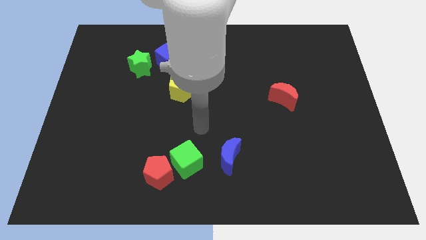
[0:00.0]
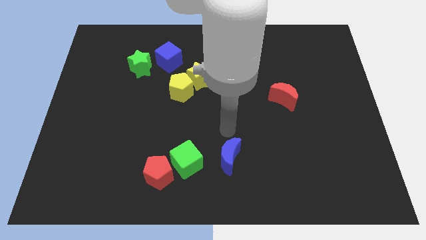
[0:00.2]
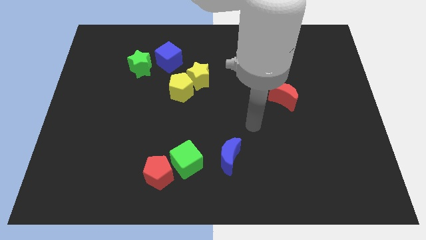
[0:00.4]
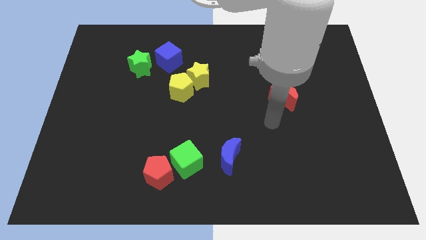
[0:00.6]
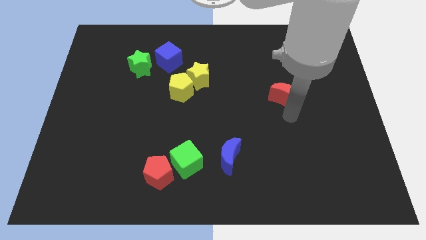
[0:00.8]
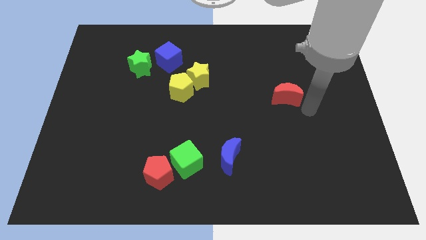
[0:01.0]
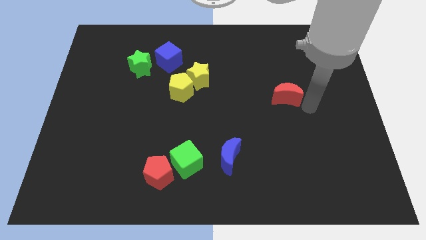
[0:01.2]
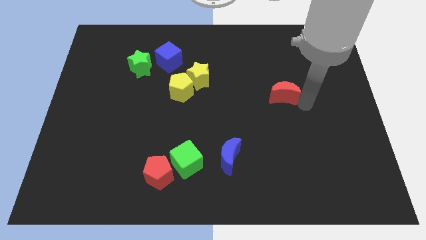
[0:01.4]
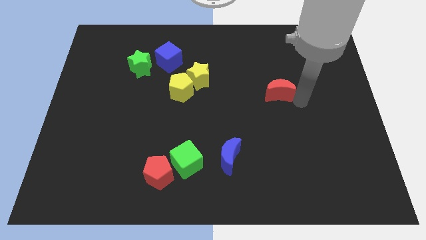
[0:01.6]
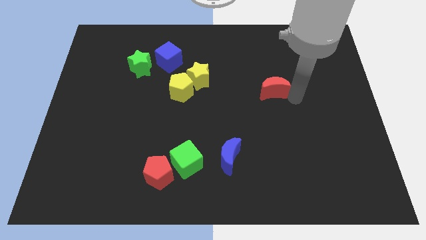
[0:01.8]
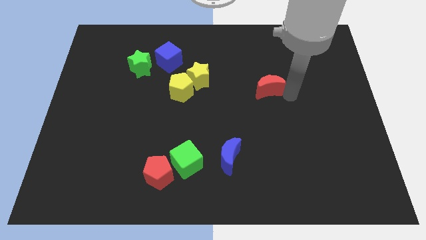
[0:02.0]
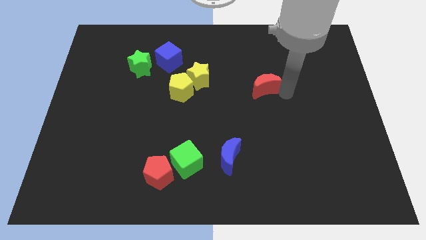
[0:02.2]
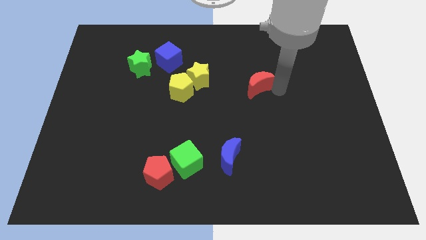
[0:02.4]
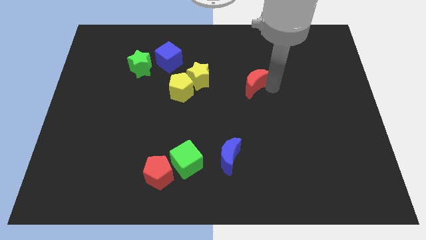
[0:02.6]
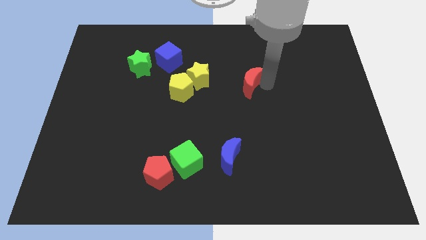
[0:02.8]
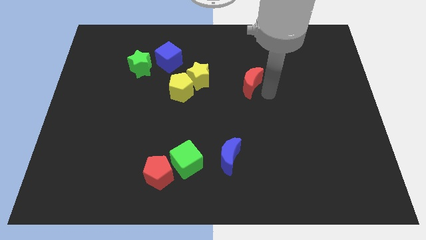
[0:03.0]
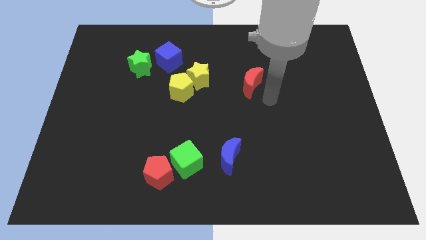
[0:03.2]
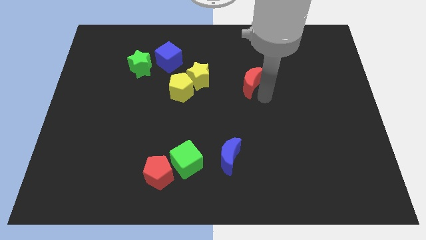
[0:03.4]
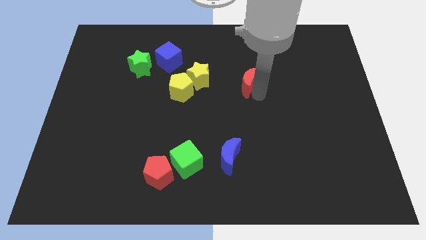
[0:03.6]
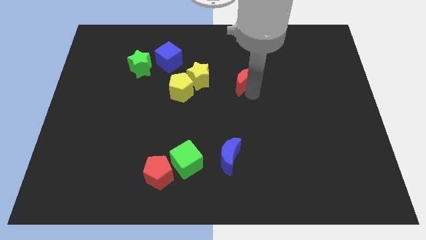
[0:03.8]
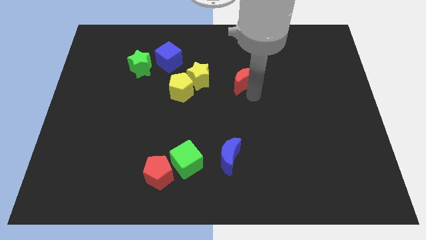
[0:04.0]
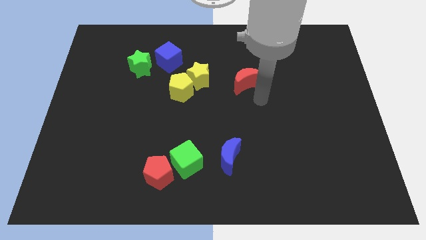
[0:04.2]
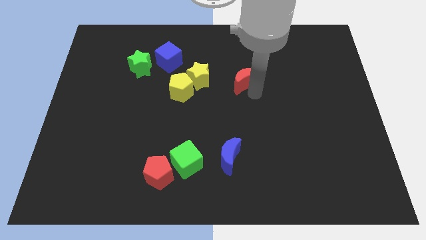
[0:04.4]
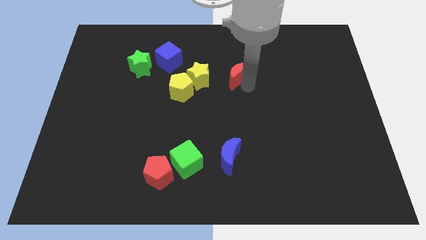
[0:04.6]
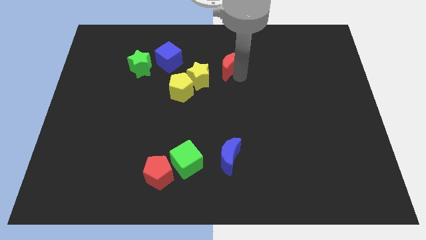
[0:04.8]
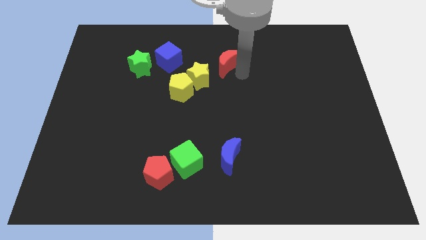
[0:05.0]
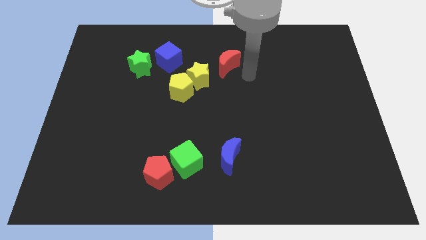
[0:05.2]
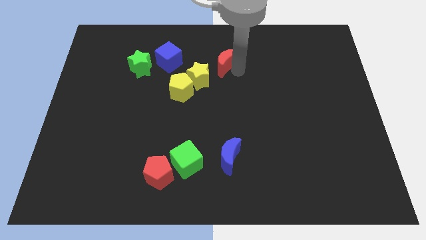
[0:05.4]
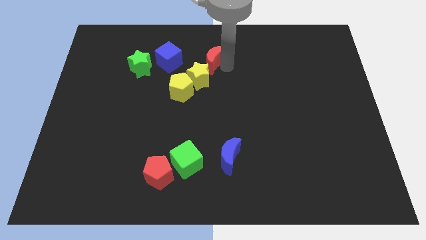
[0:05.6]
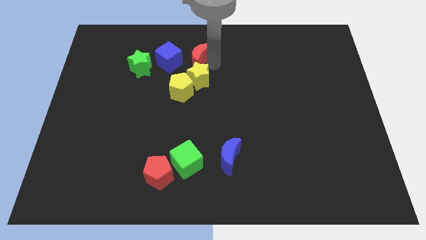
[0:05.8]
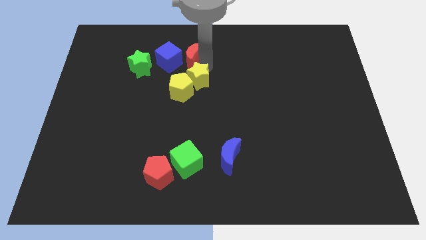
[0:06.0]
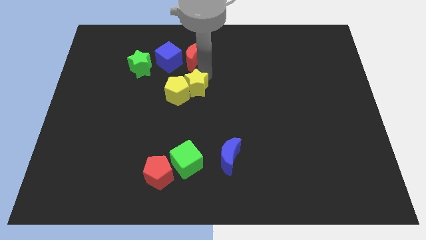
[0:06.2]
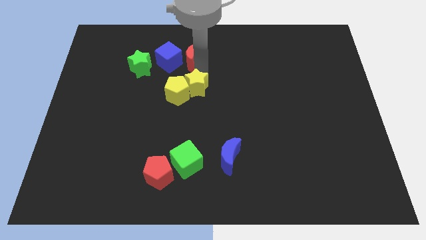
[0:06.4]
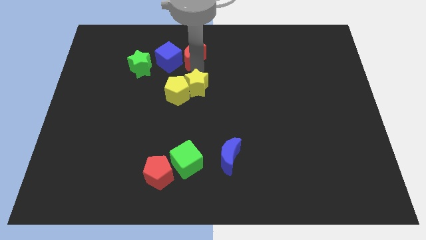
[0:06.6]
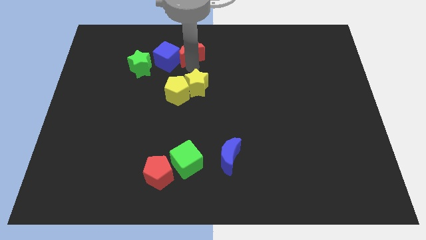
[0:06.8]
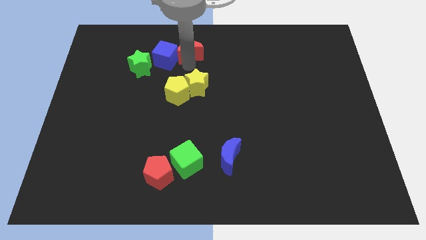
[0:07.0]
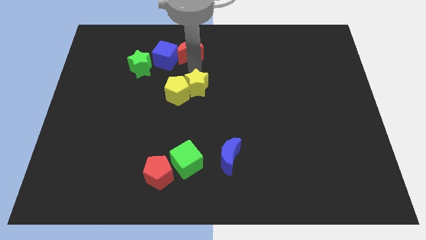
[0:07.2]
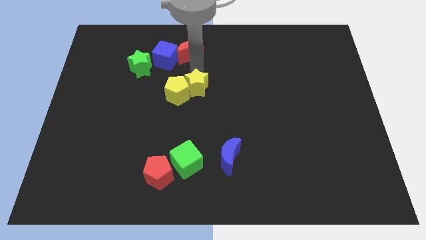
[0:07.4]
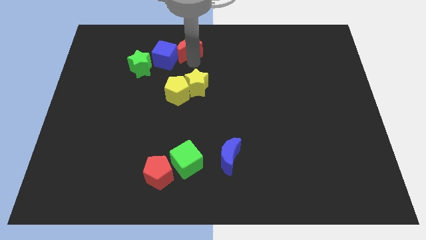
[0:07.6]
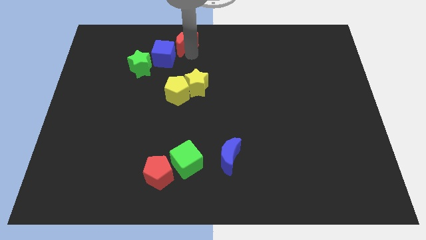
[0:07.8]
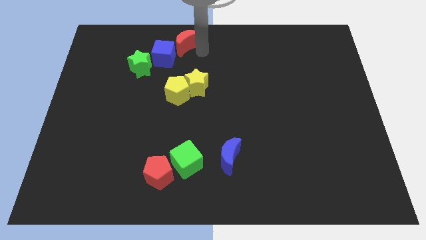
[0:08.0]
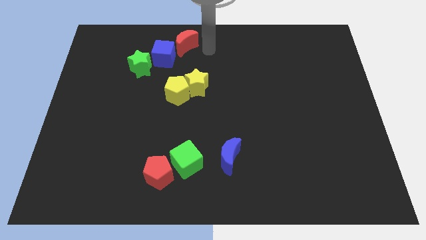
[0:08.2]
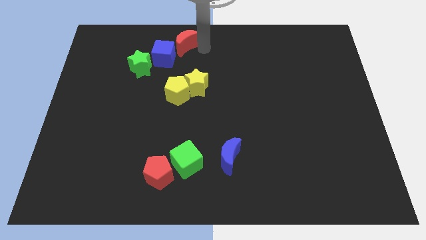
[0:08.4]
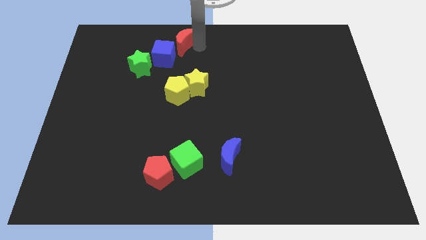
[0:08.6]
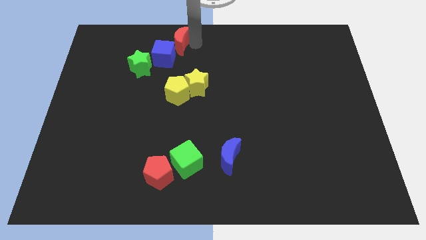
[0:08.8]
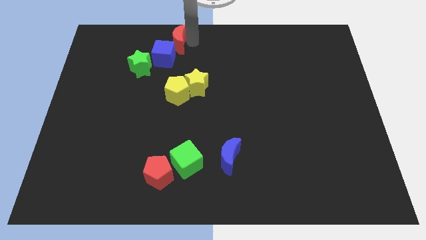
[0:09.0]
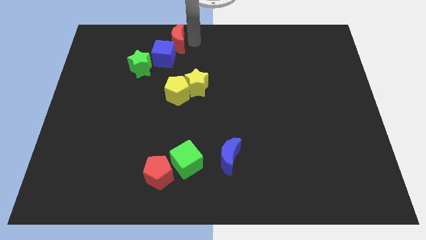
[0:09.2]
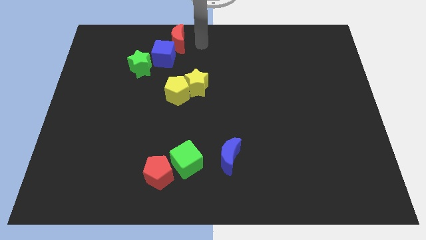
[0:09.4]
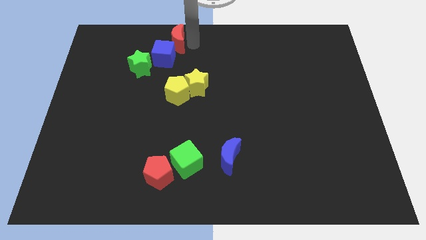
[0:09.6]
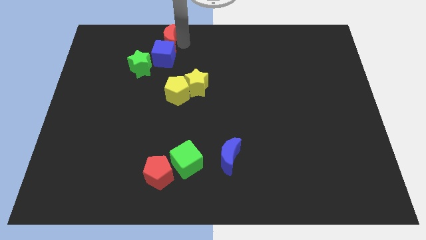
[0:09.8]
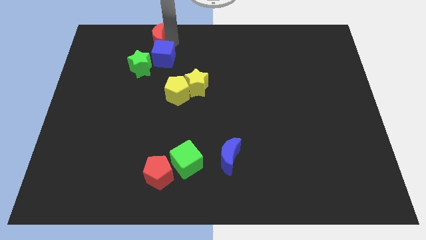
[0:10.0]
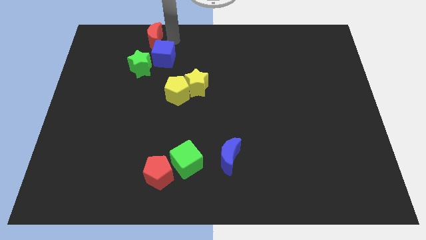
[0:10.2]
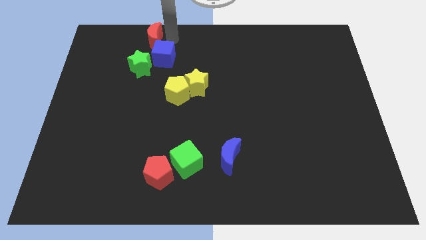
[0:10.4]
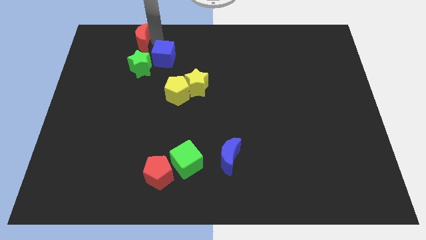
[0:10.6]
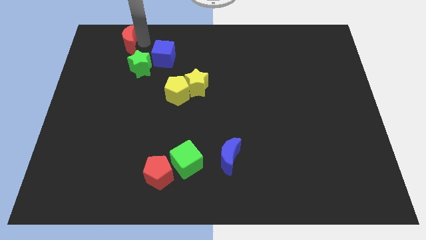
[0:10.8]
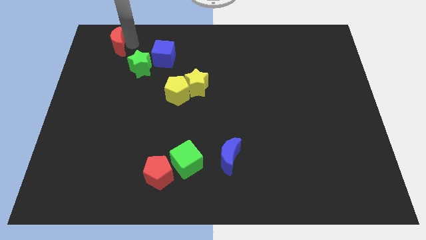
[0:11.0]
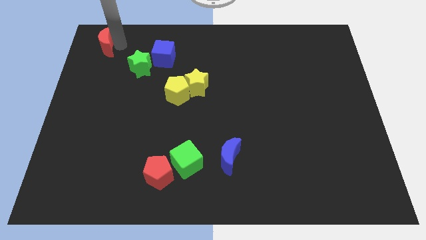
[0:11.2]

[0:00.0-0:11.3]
put the red moon to the upper left corner
